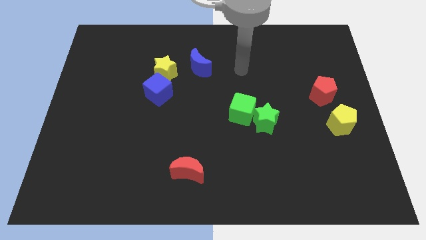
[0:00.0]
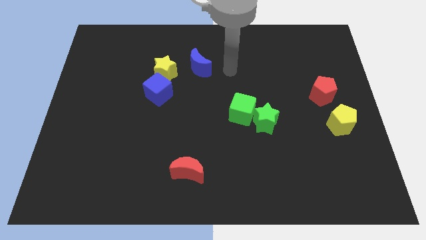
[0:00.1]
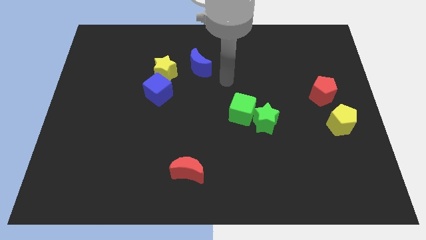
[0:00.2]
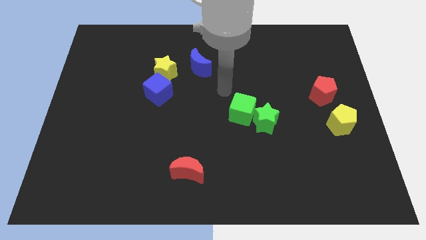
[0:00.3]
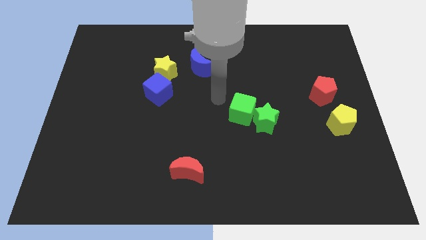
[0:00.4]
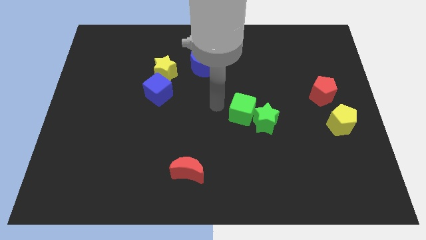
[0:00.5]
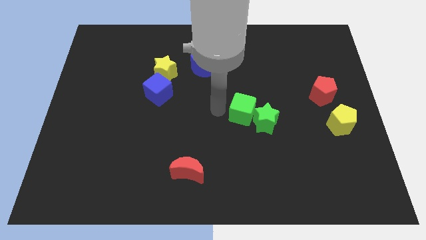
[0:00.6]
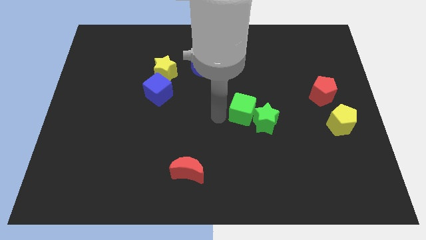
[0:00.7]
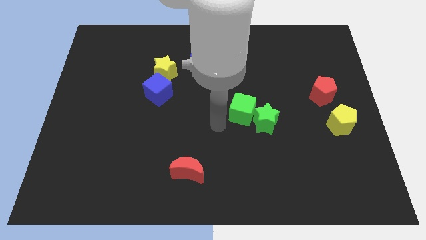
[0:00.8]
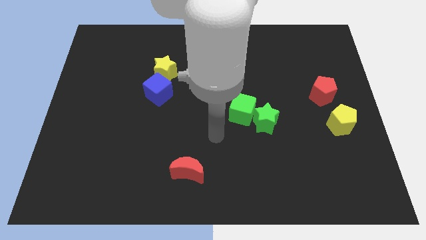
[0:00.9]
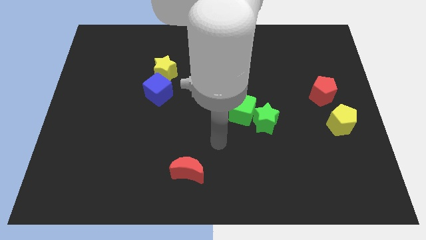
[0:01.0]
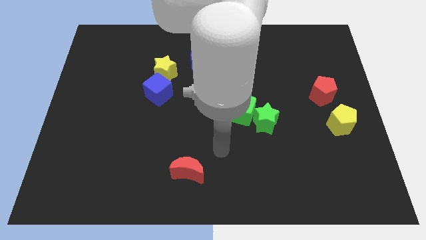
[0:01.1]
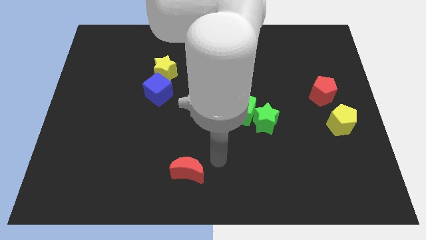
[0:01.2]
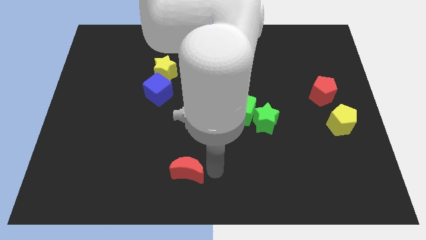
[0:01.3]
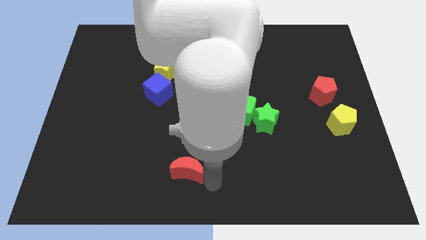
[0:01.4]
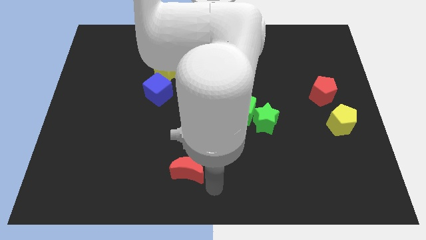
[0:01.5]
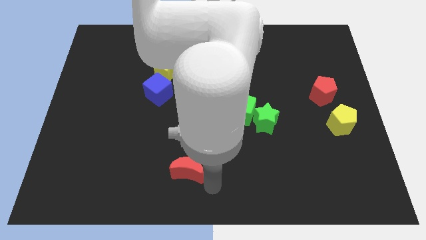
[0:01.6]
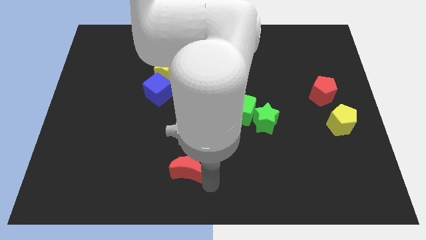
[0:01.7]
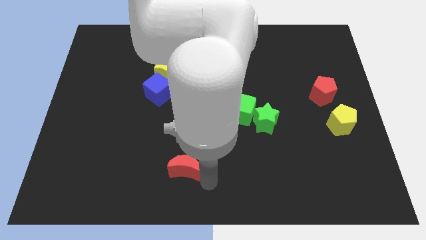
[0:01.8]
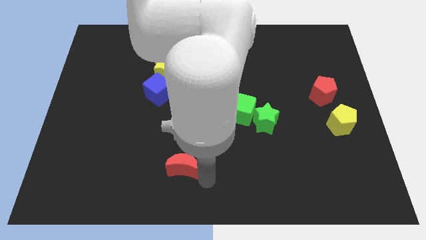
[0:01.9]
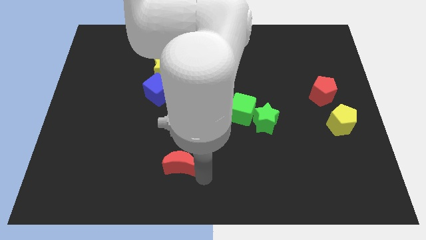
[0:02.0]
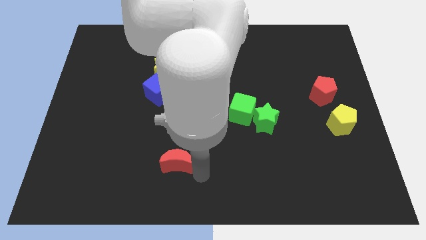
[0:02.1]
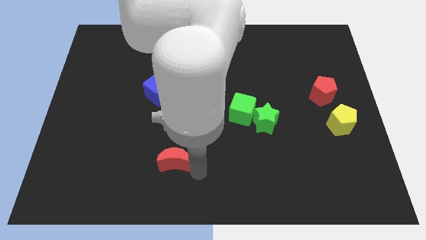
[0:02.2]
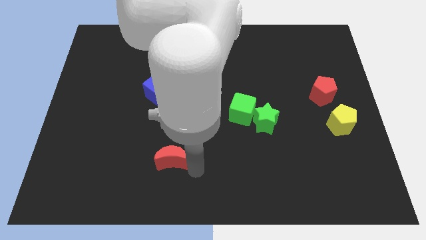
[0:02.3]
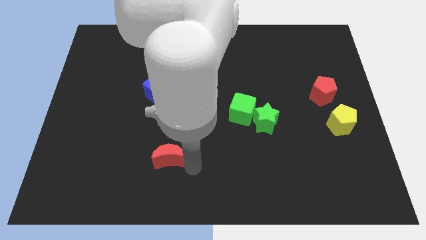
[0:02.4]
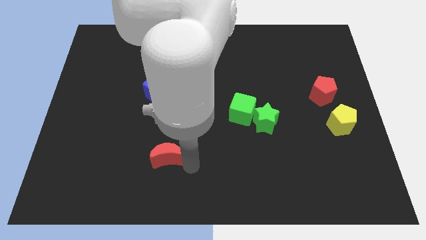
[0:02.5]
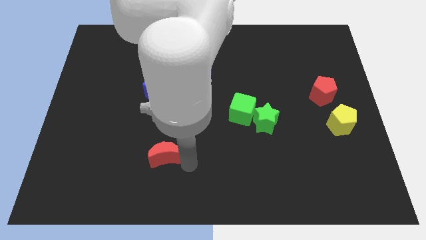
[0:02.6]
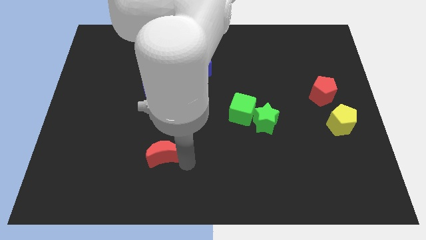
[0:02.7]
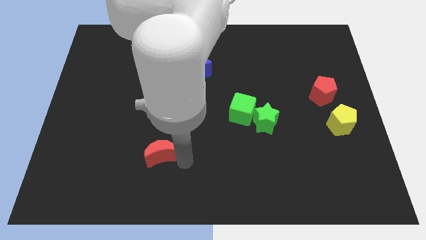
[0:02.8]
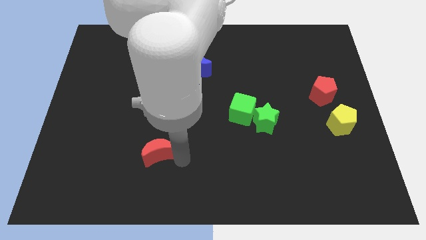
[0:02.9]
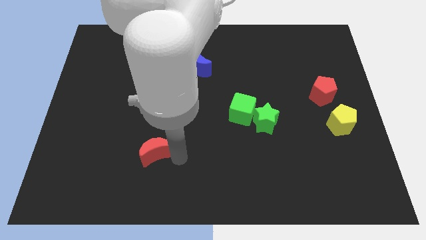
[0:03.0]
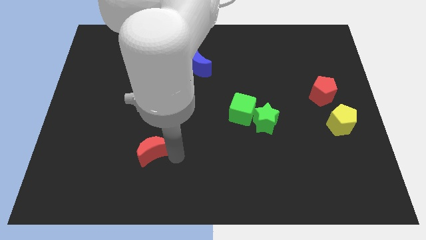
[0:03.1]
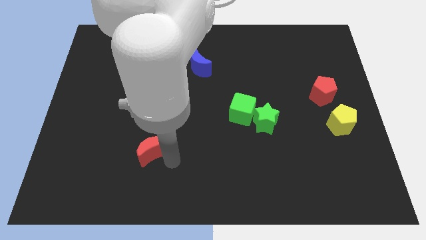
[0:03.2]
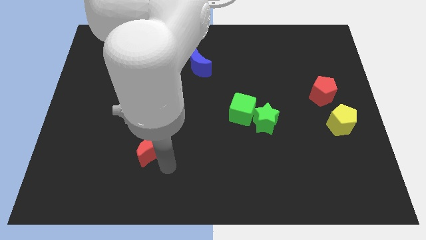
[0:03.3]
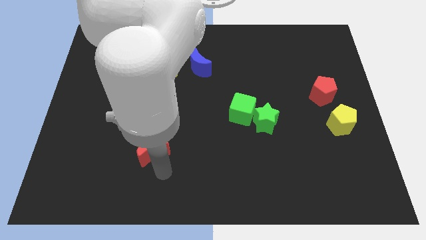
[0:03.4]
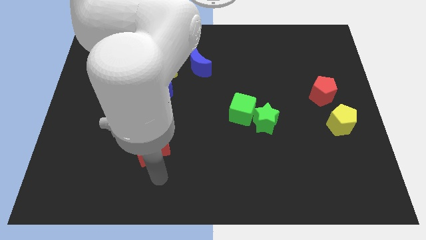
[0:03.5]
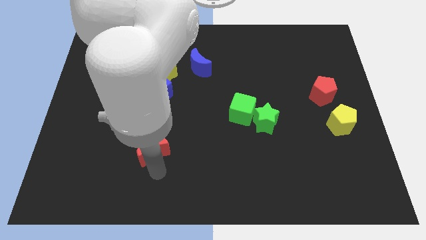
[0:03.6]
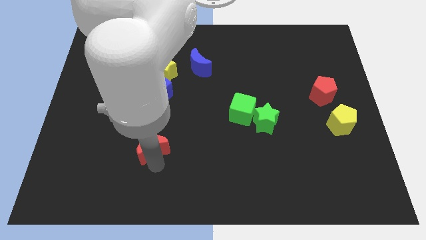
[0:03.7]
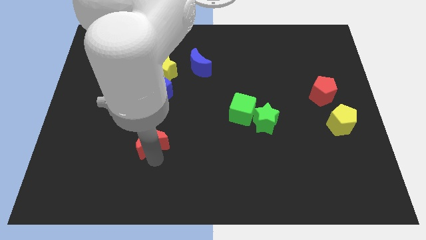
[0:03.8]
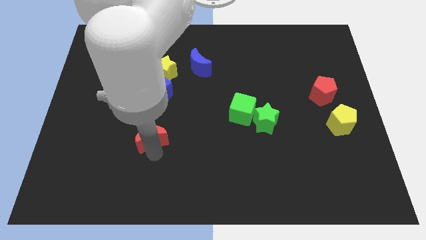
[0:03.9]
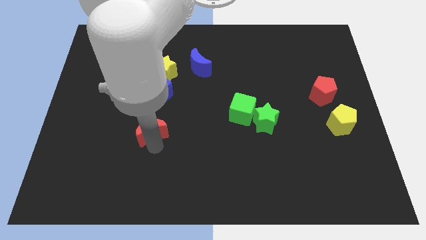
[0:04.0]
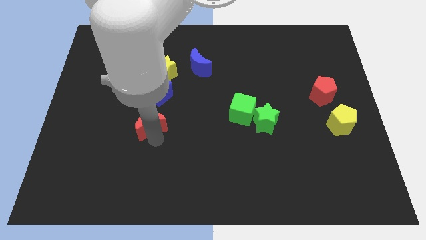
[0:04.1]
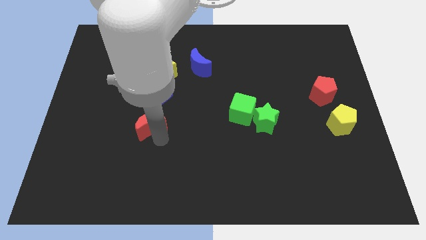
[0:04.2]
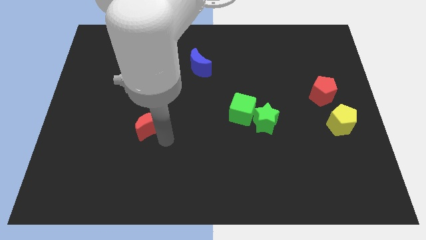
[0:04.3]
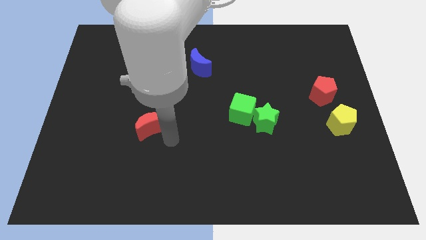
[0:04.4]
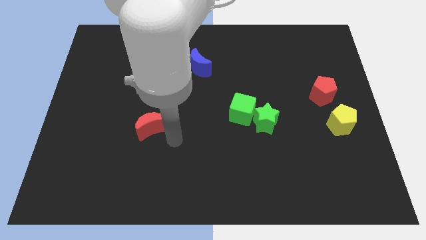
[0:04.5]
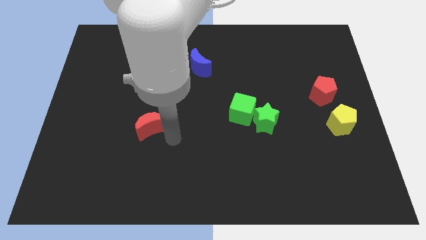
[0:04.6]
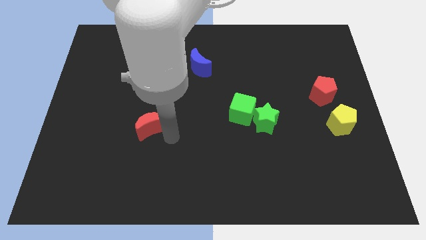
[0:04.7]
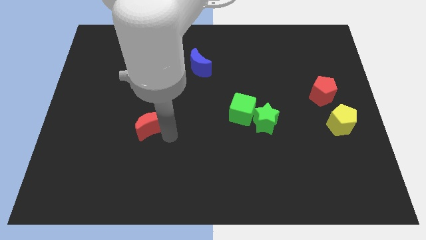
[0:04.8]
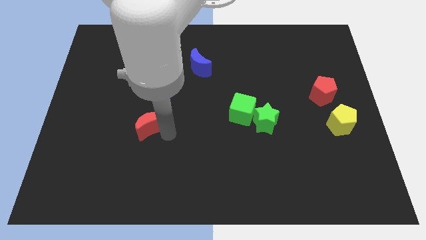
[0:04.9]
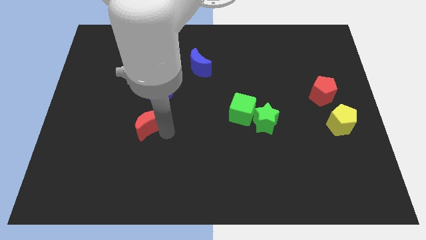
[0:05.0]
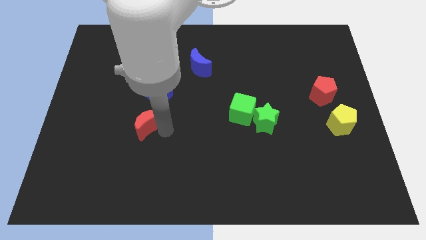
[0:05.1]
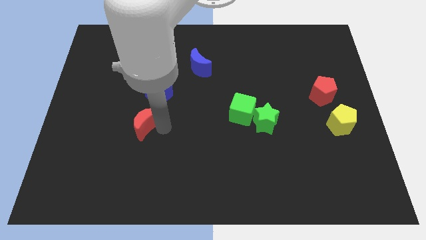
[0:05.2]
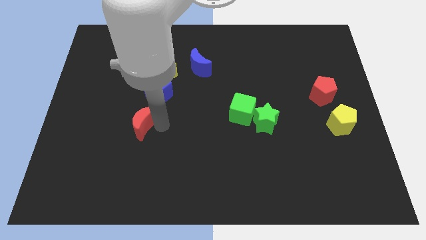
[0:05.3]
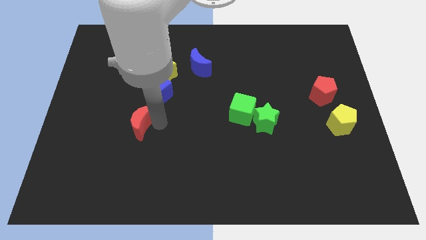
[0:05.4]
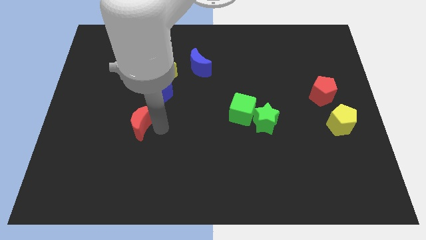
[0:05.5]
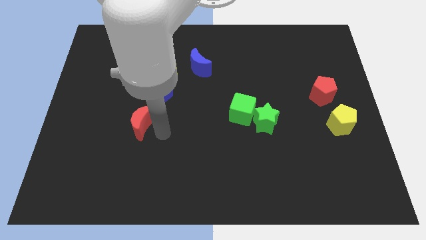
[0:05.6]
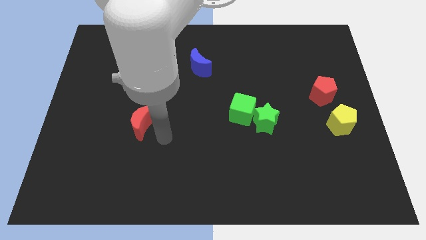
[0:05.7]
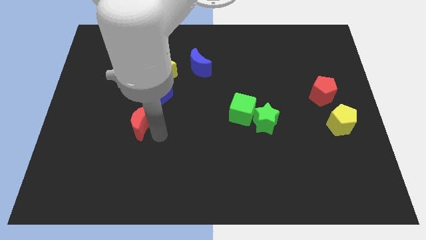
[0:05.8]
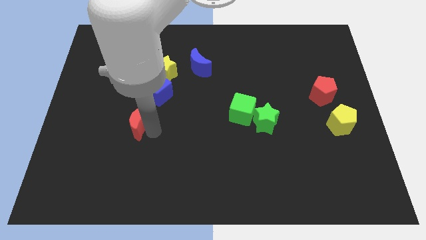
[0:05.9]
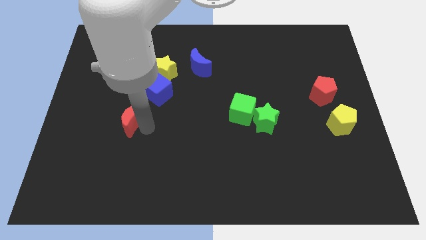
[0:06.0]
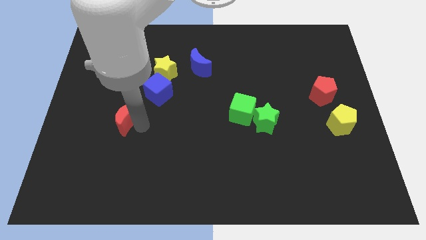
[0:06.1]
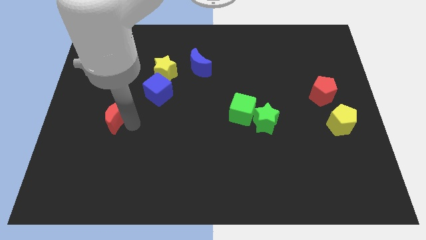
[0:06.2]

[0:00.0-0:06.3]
push the red moon upwards and left diagonally

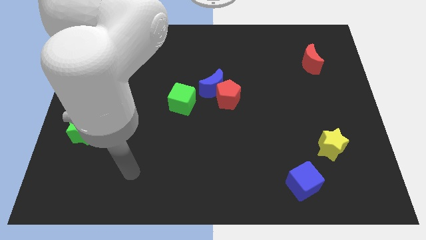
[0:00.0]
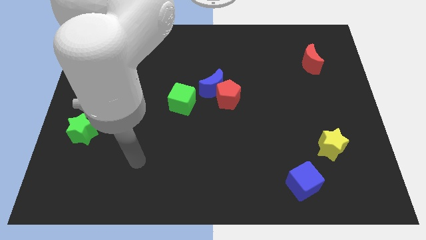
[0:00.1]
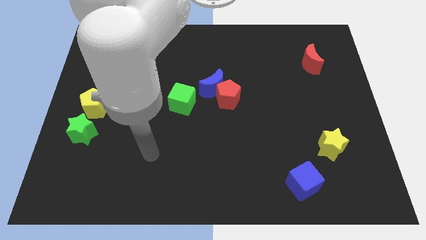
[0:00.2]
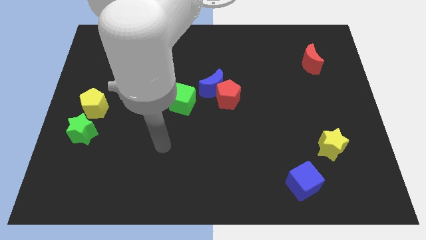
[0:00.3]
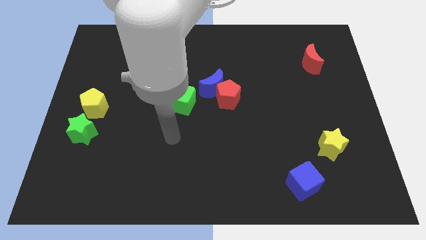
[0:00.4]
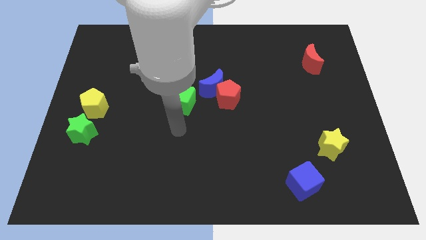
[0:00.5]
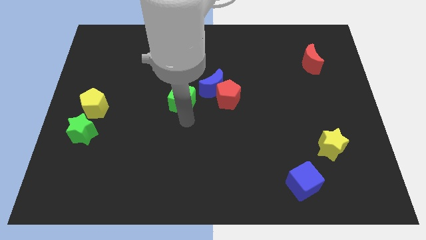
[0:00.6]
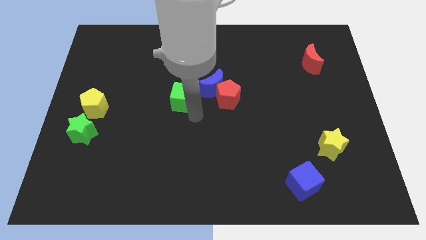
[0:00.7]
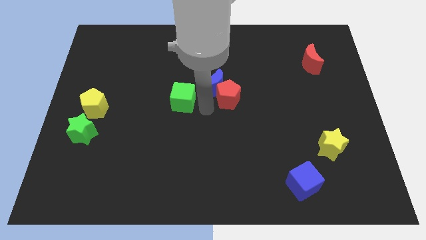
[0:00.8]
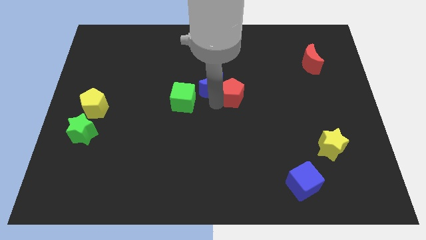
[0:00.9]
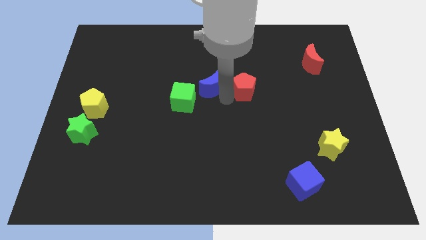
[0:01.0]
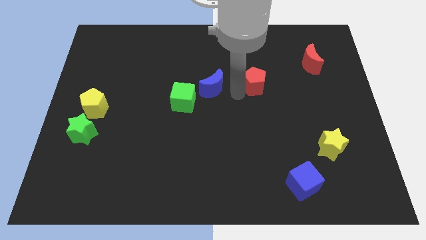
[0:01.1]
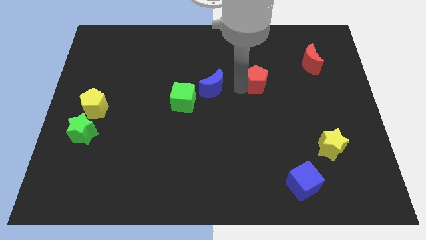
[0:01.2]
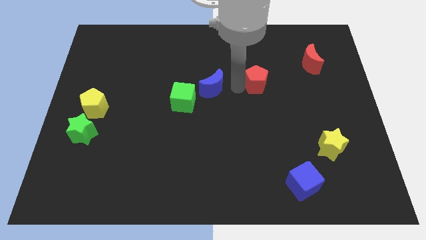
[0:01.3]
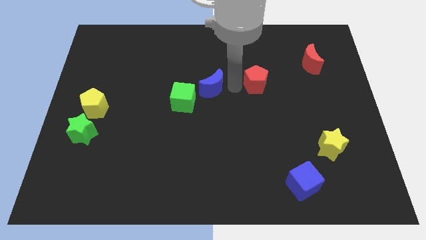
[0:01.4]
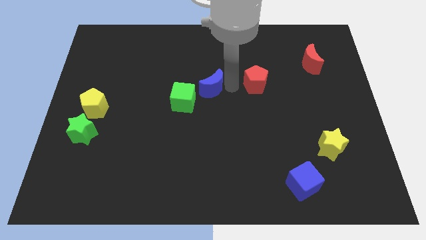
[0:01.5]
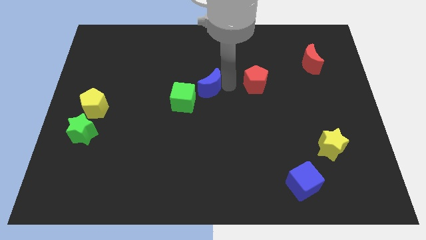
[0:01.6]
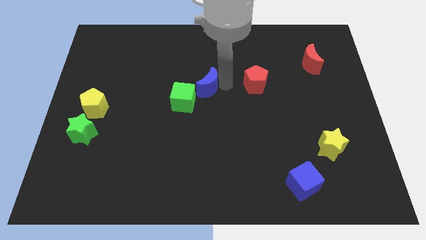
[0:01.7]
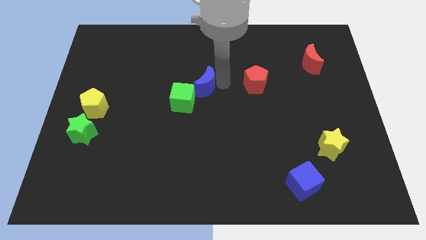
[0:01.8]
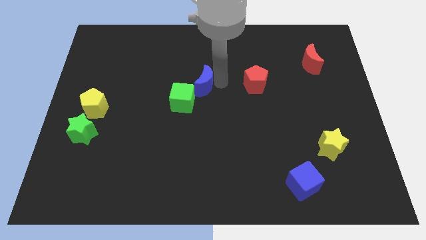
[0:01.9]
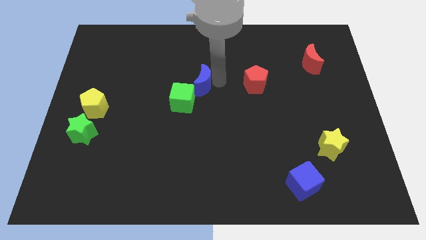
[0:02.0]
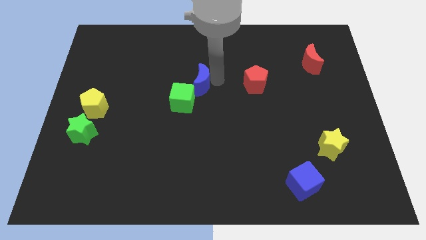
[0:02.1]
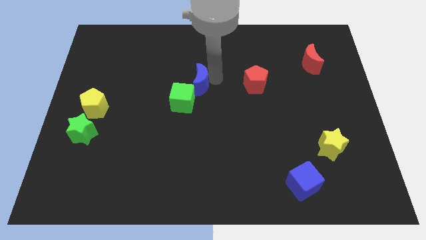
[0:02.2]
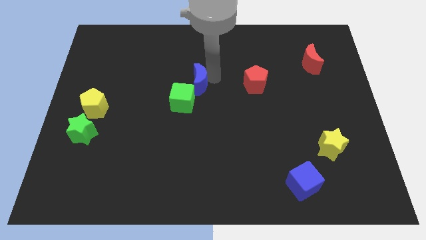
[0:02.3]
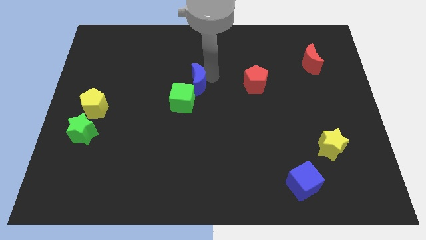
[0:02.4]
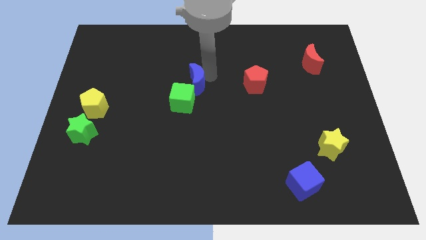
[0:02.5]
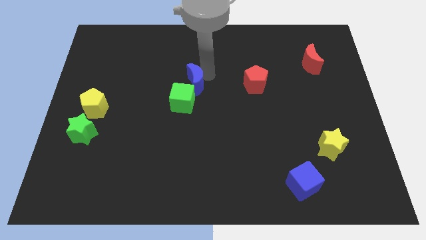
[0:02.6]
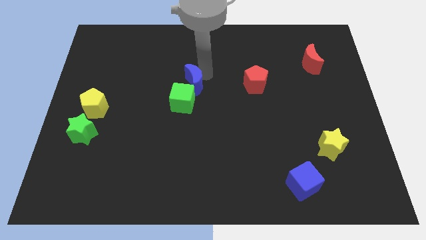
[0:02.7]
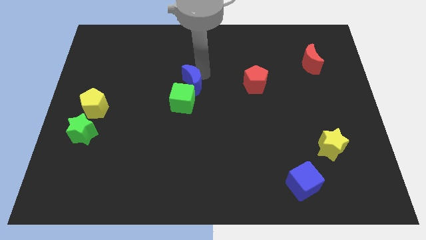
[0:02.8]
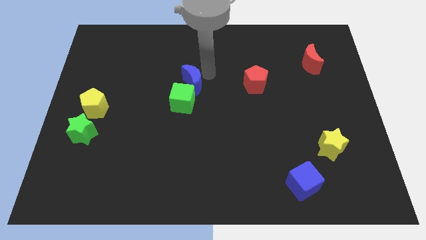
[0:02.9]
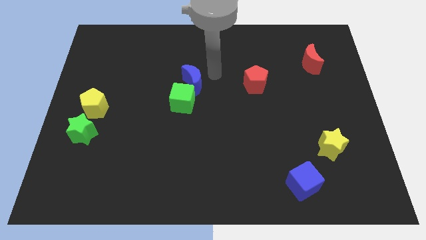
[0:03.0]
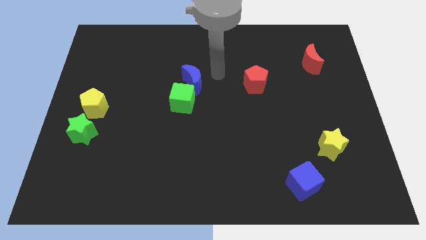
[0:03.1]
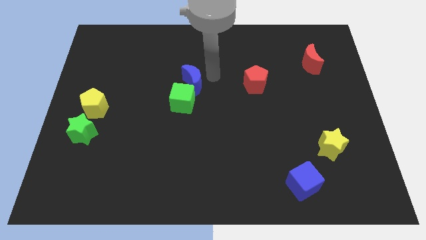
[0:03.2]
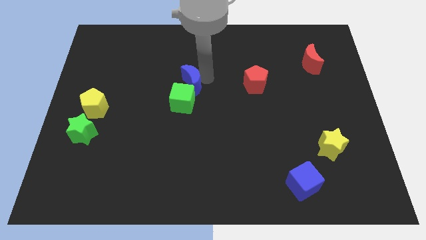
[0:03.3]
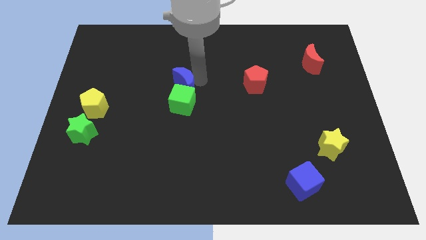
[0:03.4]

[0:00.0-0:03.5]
push the blue moon to the left slightly
